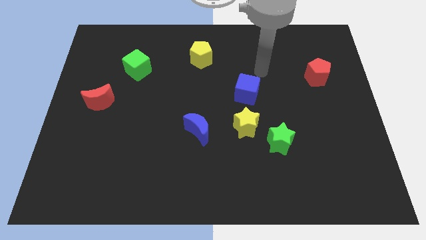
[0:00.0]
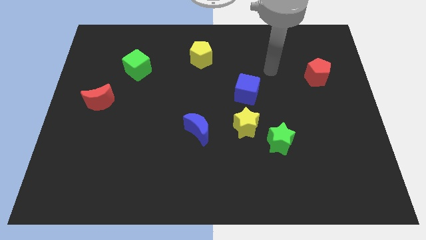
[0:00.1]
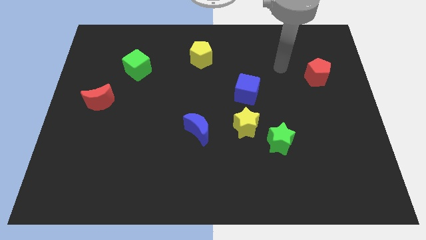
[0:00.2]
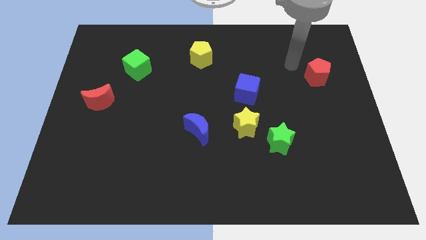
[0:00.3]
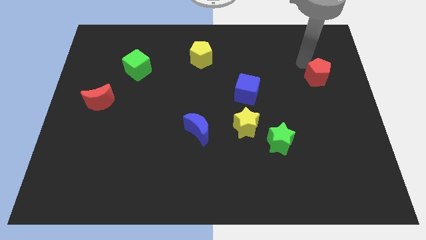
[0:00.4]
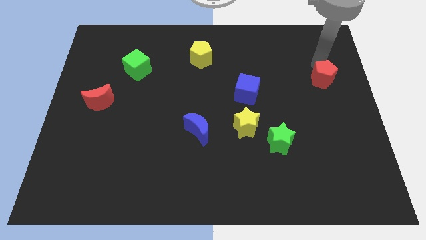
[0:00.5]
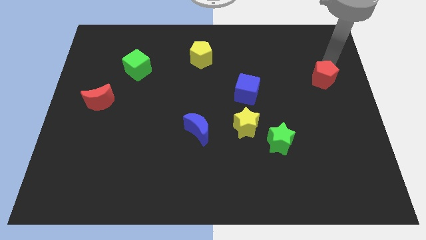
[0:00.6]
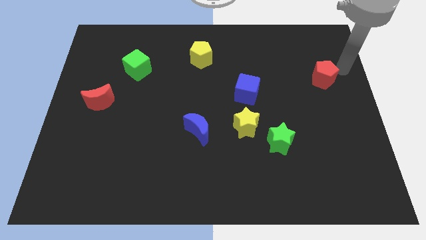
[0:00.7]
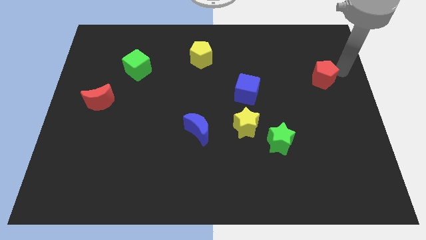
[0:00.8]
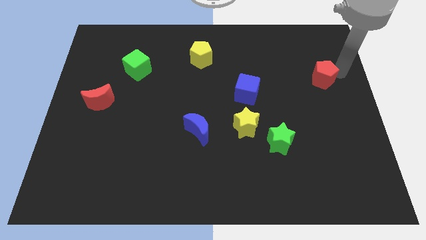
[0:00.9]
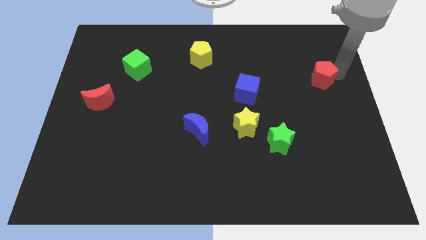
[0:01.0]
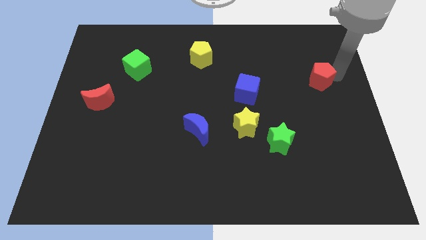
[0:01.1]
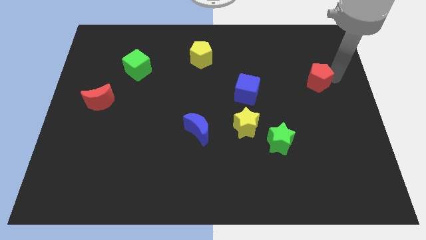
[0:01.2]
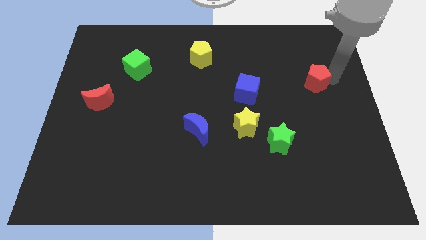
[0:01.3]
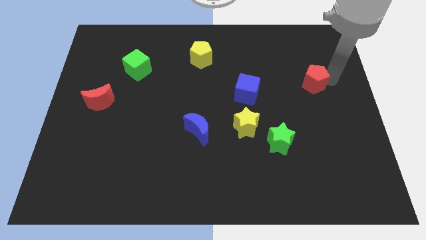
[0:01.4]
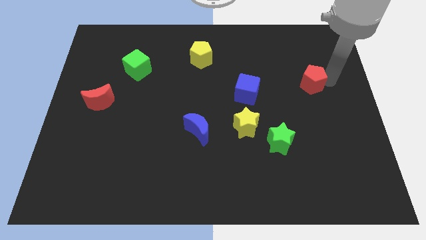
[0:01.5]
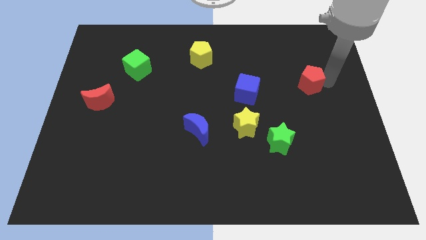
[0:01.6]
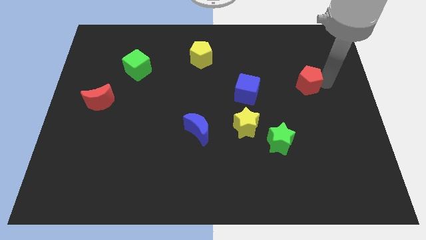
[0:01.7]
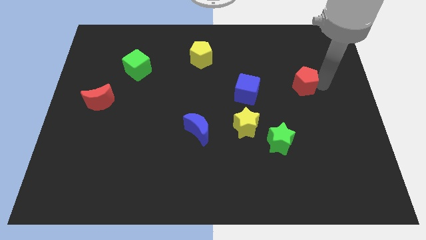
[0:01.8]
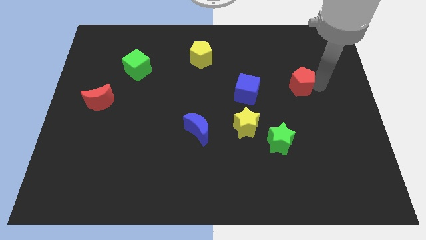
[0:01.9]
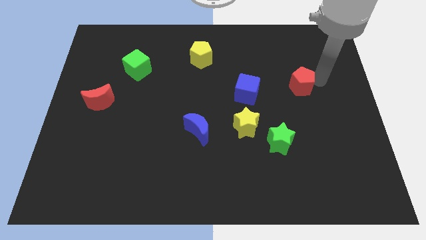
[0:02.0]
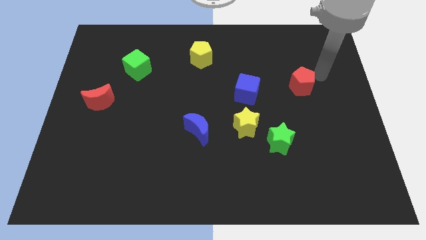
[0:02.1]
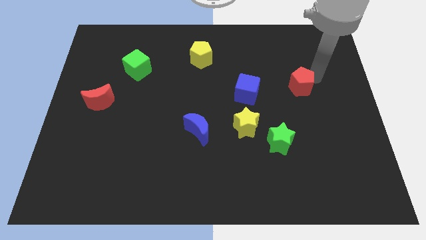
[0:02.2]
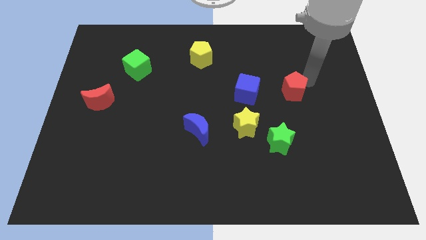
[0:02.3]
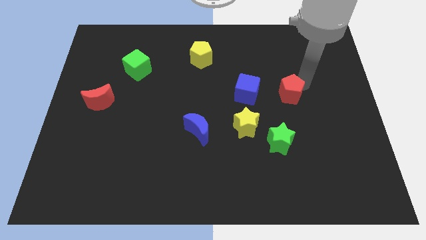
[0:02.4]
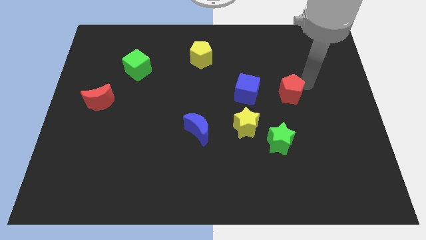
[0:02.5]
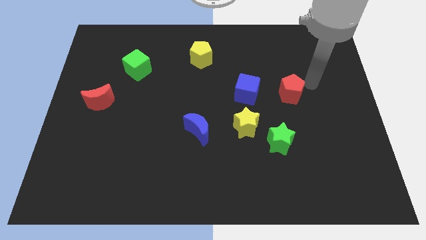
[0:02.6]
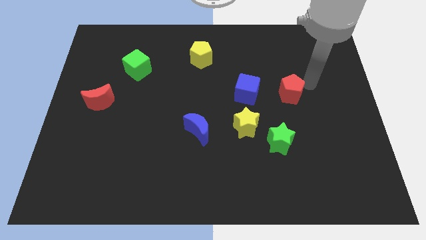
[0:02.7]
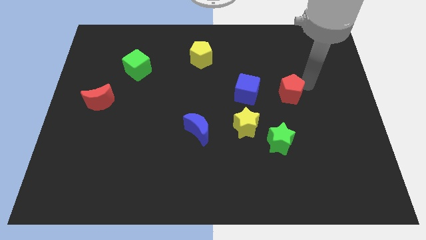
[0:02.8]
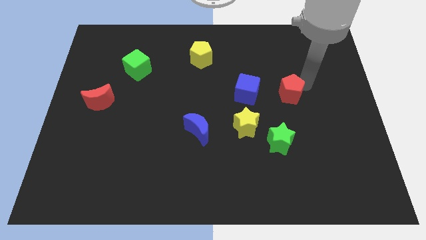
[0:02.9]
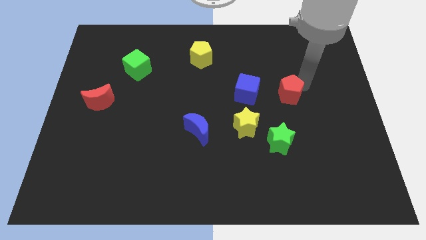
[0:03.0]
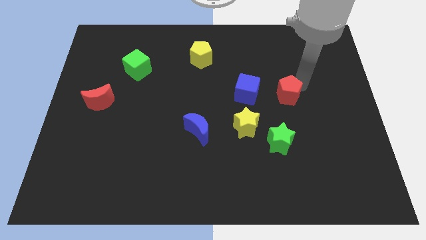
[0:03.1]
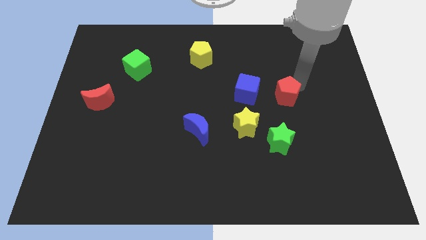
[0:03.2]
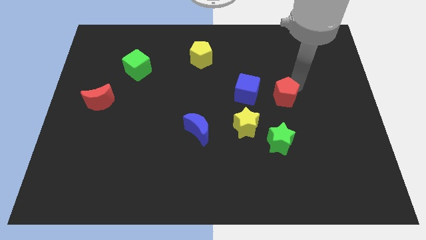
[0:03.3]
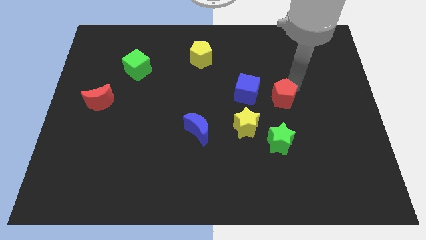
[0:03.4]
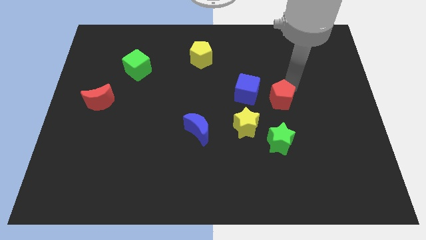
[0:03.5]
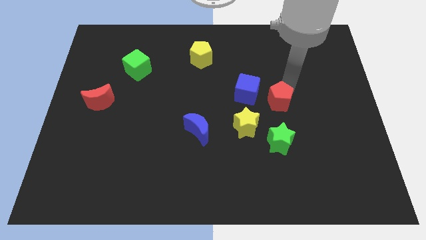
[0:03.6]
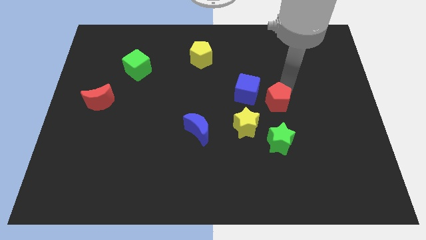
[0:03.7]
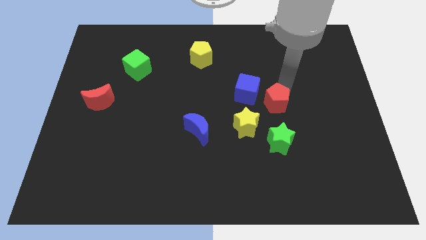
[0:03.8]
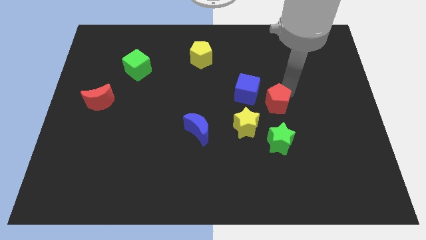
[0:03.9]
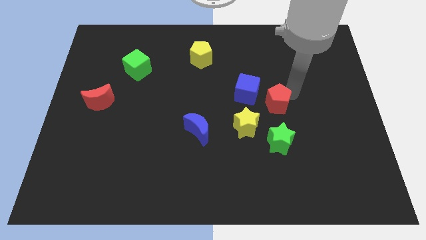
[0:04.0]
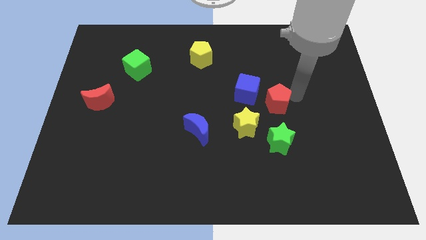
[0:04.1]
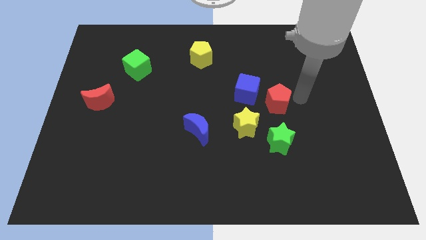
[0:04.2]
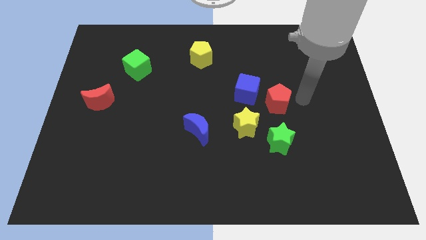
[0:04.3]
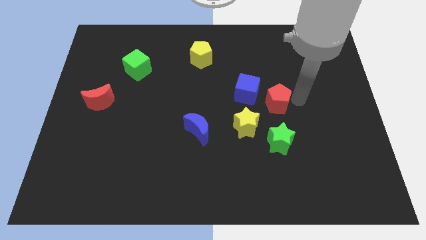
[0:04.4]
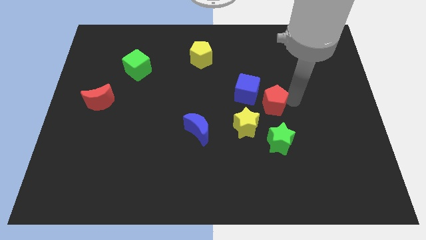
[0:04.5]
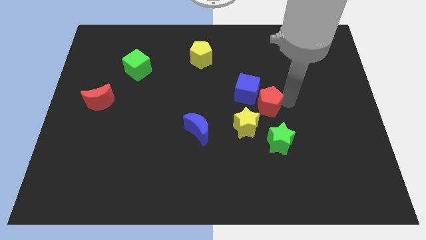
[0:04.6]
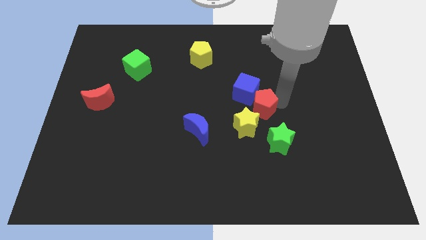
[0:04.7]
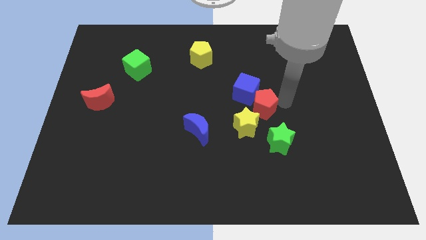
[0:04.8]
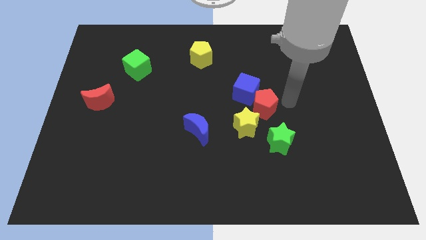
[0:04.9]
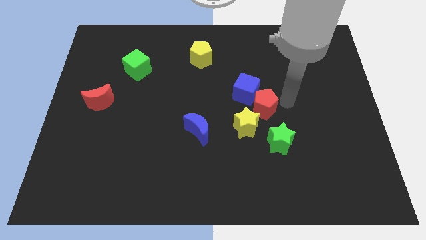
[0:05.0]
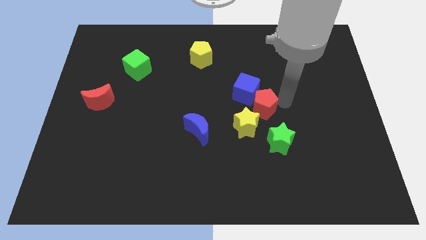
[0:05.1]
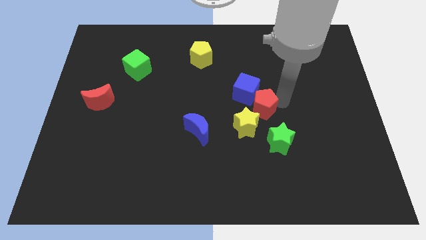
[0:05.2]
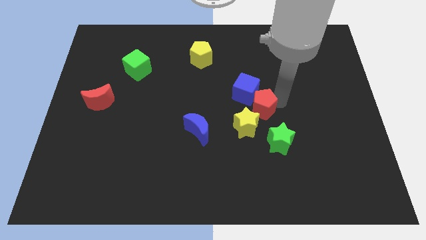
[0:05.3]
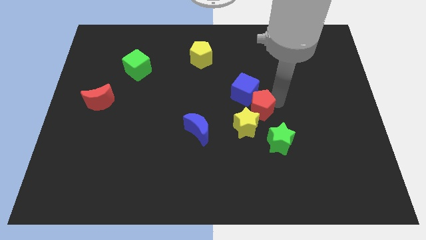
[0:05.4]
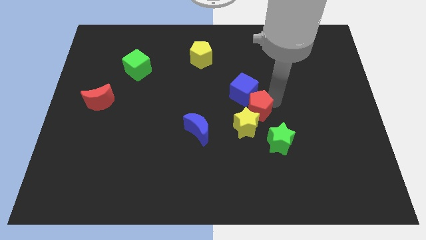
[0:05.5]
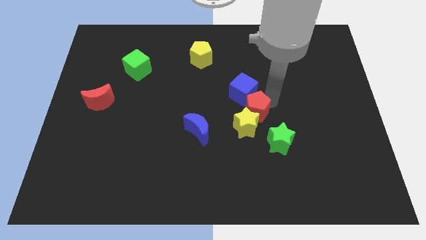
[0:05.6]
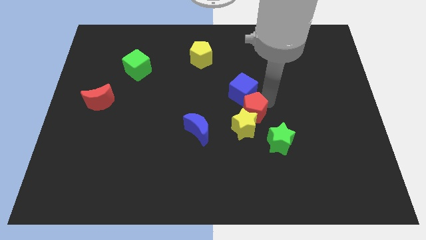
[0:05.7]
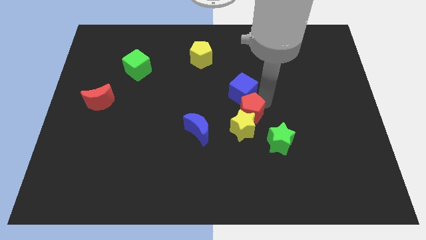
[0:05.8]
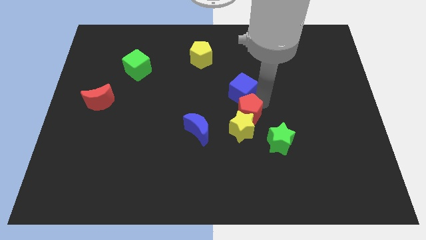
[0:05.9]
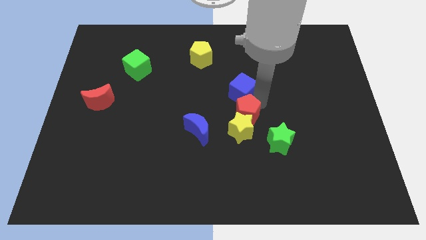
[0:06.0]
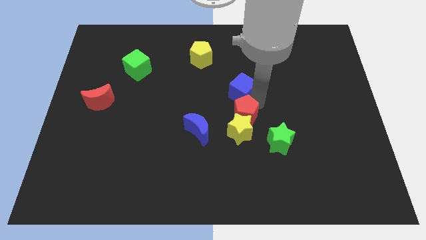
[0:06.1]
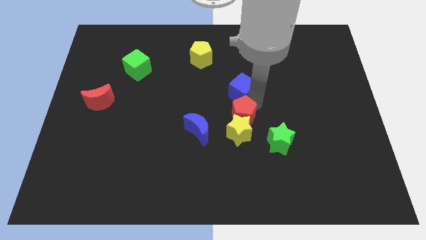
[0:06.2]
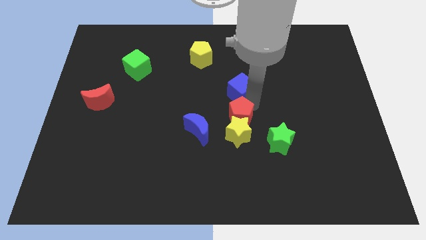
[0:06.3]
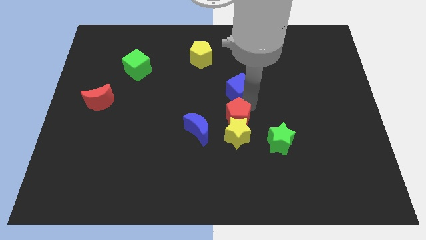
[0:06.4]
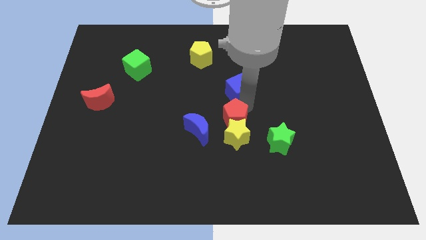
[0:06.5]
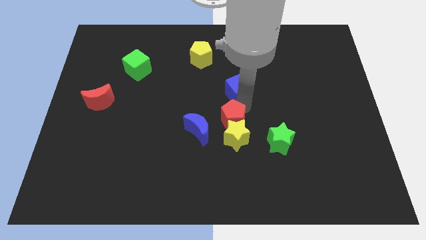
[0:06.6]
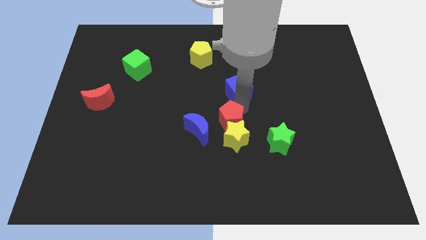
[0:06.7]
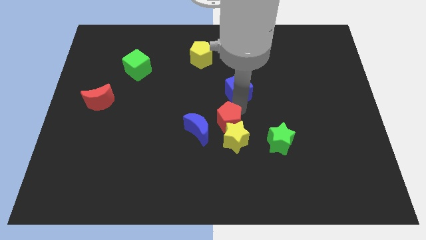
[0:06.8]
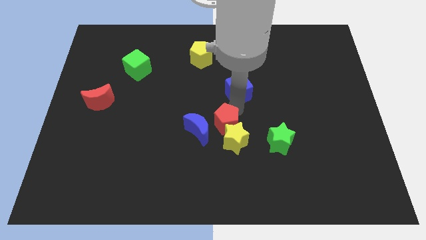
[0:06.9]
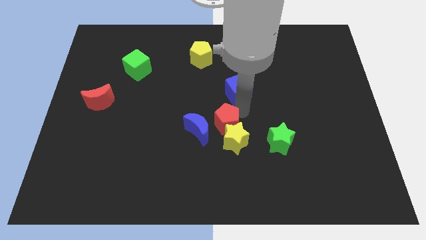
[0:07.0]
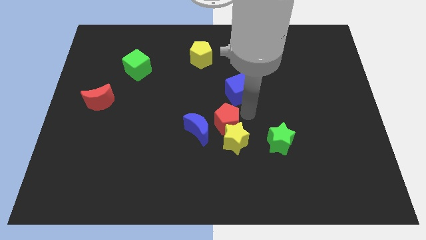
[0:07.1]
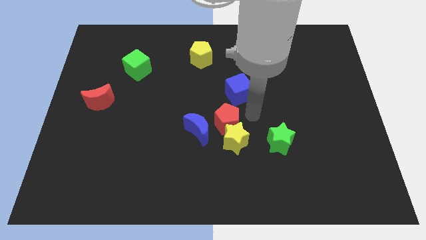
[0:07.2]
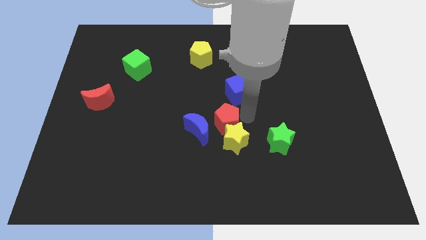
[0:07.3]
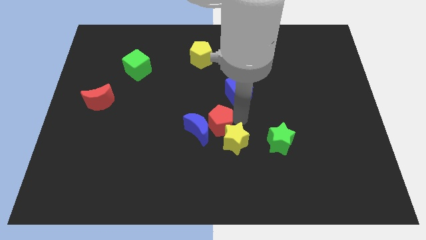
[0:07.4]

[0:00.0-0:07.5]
put the red pentagon next to the blue moon
